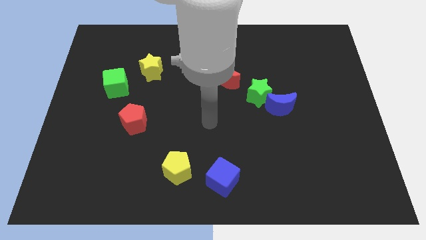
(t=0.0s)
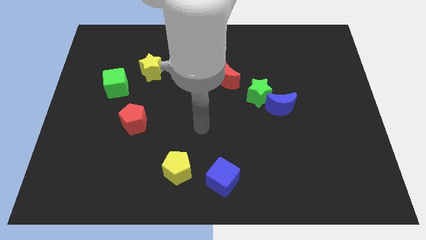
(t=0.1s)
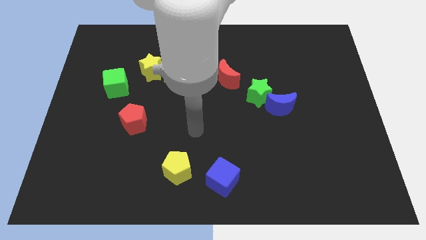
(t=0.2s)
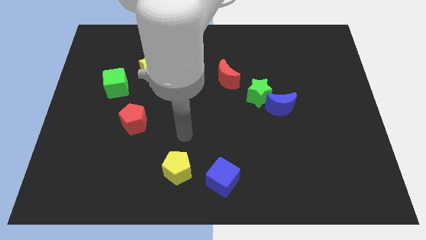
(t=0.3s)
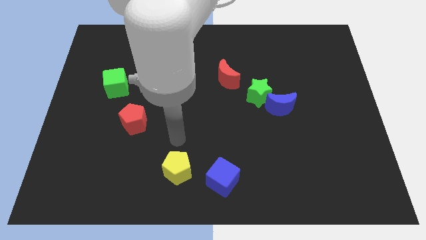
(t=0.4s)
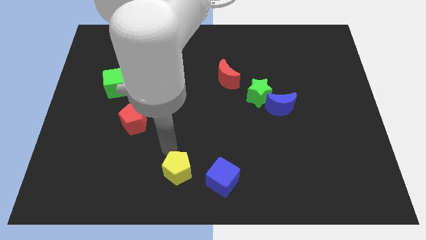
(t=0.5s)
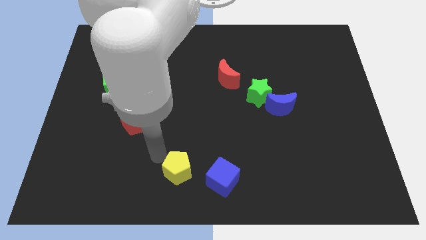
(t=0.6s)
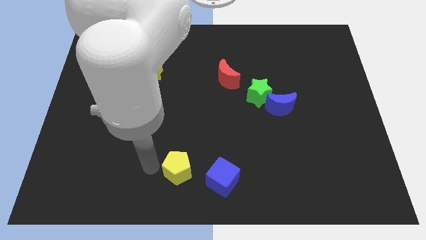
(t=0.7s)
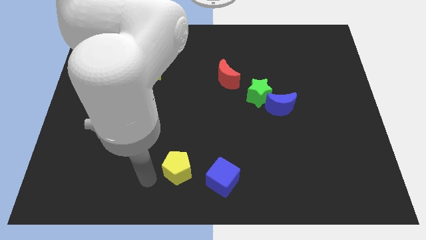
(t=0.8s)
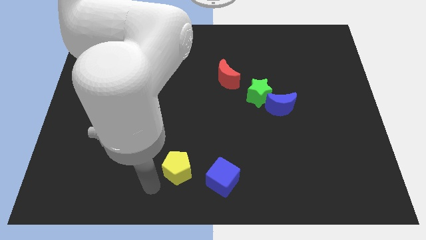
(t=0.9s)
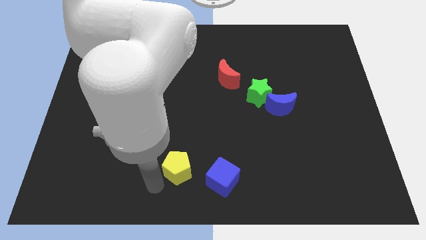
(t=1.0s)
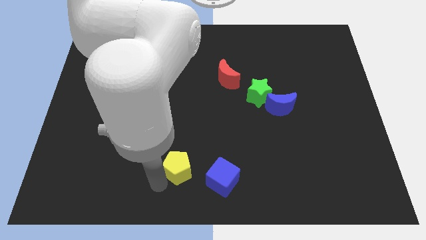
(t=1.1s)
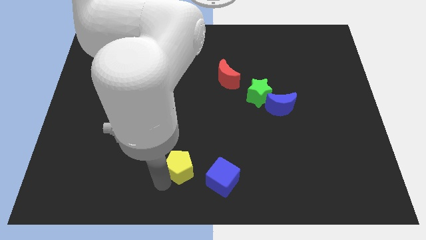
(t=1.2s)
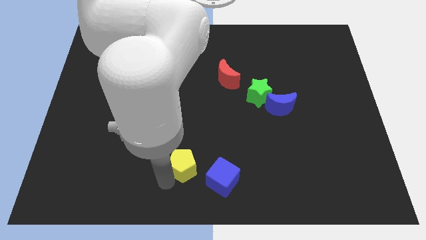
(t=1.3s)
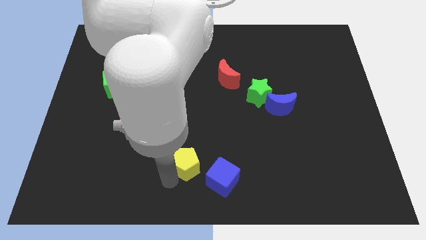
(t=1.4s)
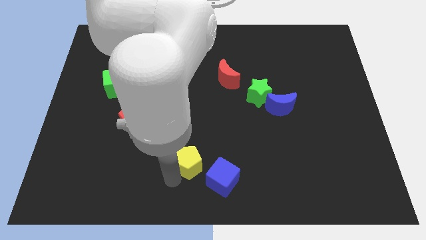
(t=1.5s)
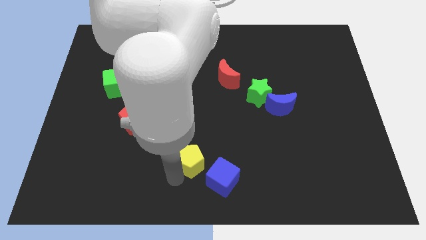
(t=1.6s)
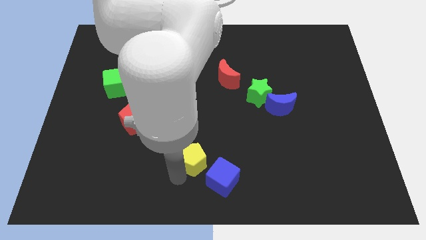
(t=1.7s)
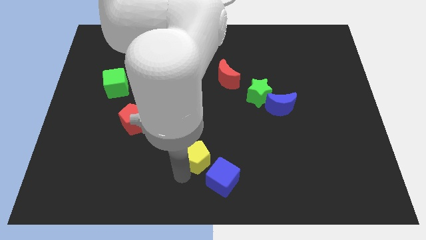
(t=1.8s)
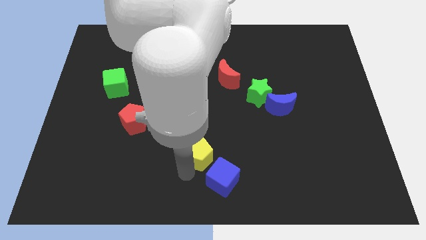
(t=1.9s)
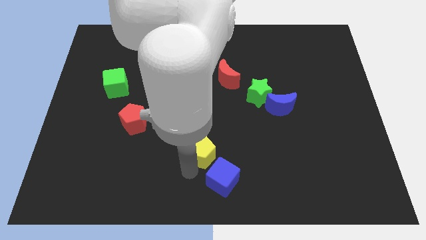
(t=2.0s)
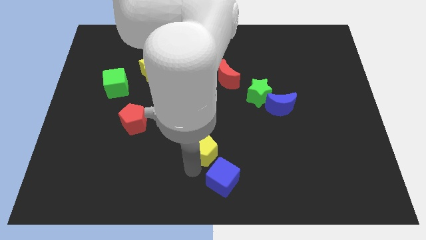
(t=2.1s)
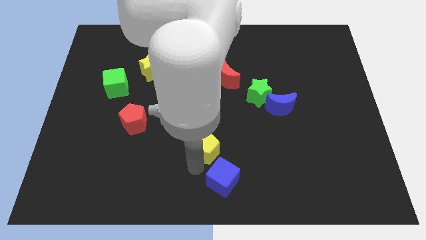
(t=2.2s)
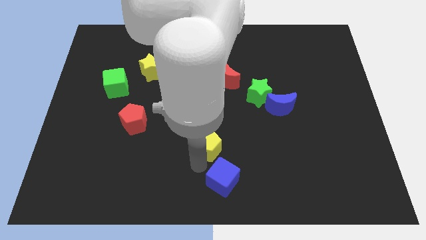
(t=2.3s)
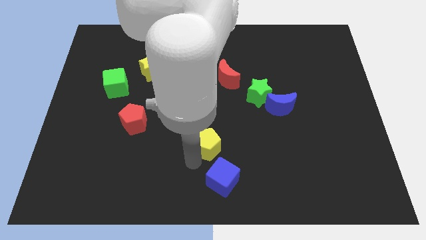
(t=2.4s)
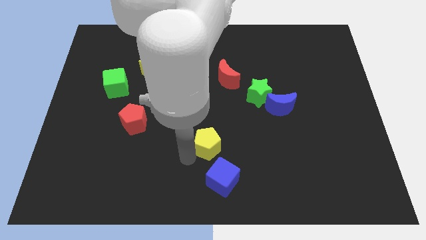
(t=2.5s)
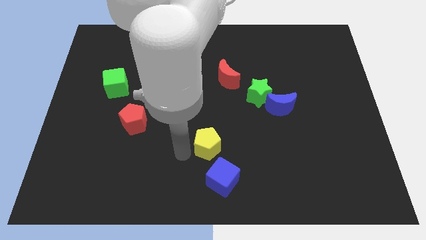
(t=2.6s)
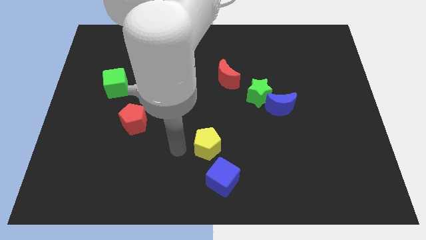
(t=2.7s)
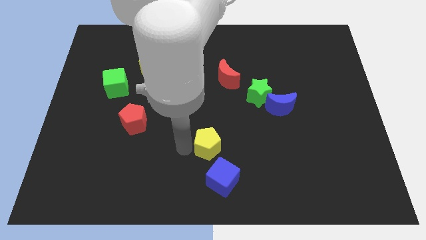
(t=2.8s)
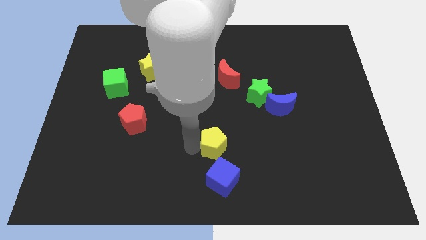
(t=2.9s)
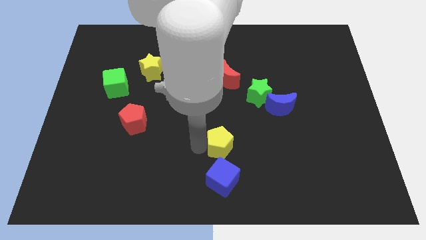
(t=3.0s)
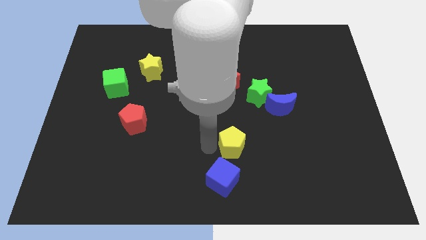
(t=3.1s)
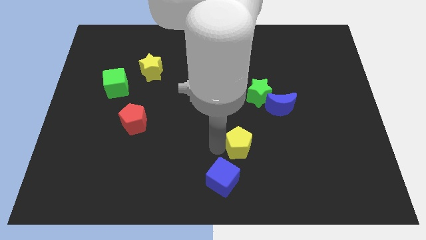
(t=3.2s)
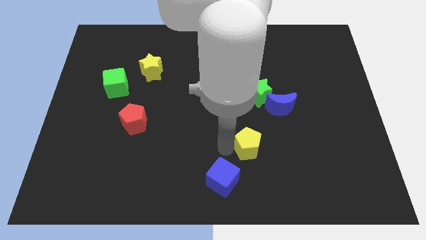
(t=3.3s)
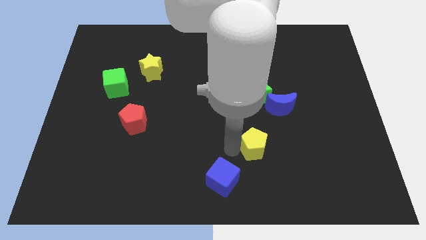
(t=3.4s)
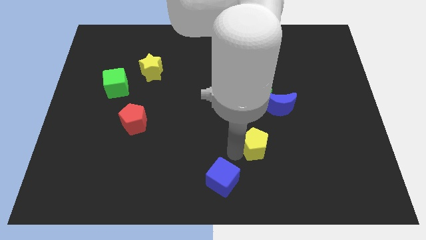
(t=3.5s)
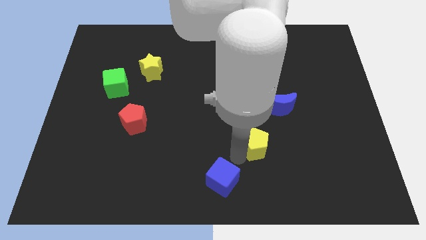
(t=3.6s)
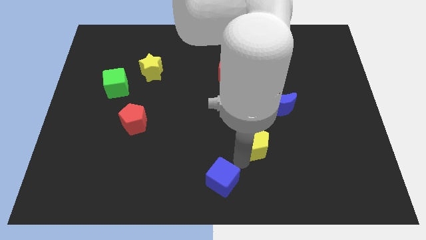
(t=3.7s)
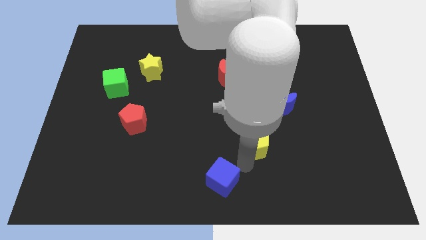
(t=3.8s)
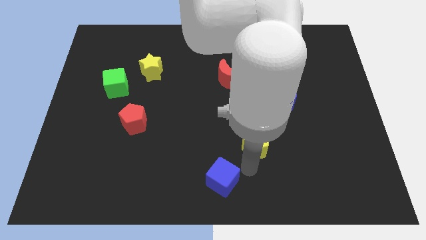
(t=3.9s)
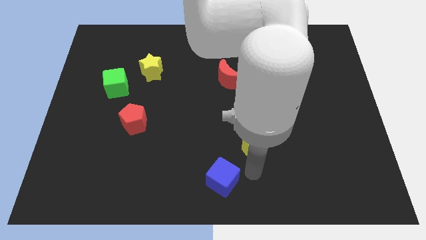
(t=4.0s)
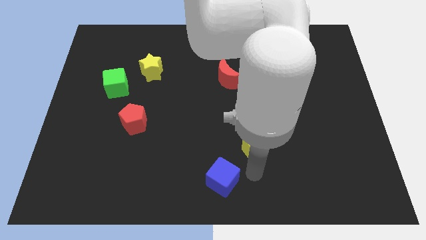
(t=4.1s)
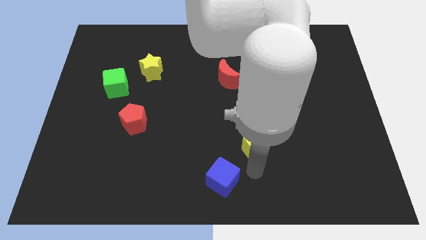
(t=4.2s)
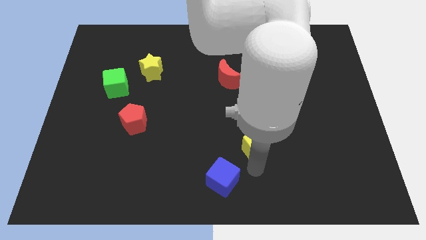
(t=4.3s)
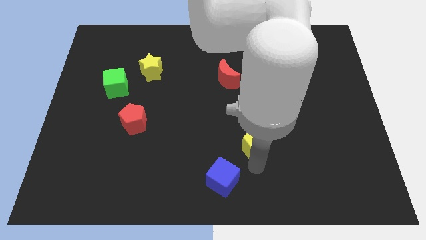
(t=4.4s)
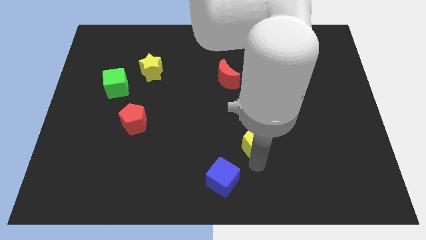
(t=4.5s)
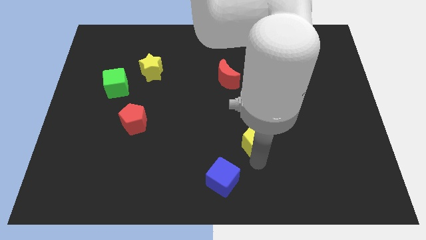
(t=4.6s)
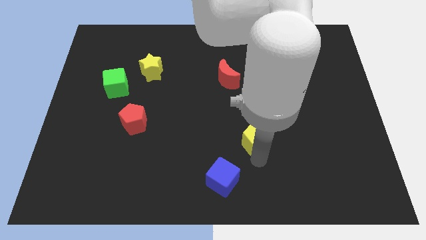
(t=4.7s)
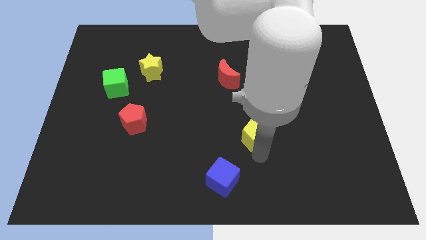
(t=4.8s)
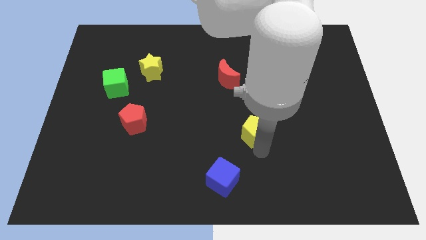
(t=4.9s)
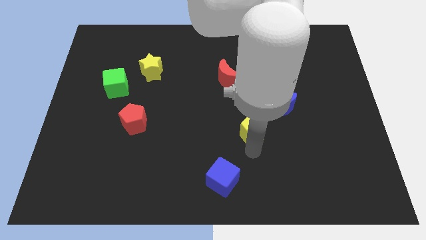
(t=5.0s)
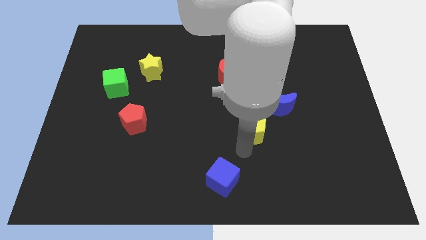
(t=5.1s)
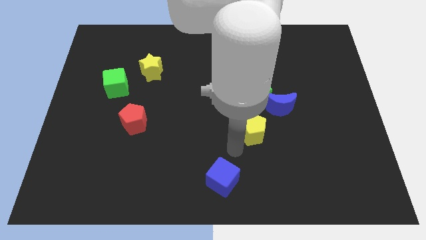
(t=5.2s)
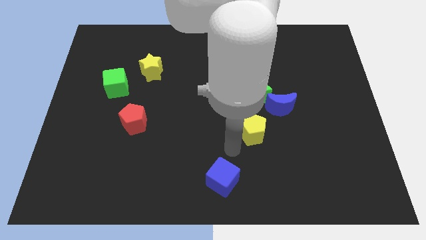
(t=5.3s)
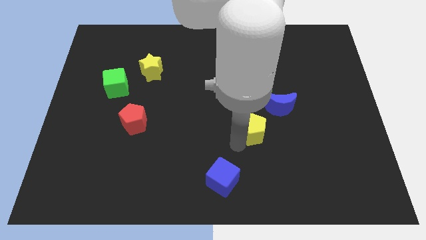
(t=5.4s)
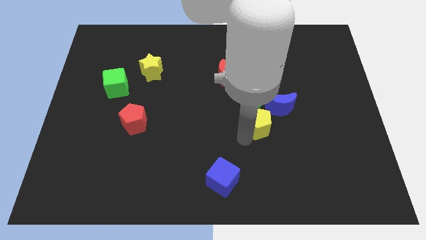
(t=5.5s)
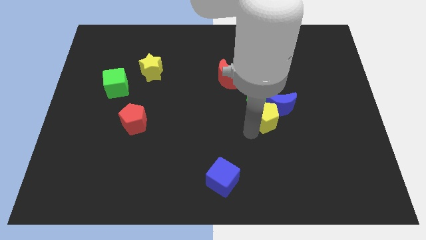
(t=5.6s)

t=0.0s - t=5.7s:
push the yellow pentagon to the blue moon

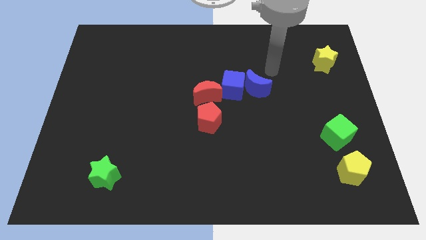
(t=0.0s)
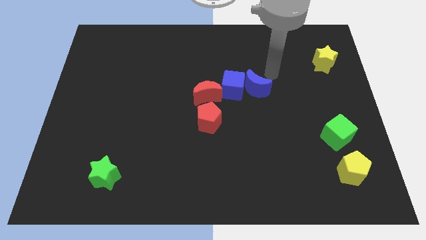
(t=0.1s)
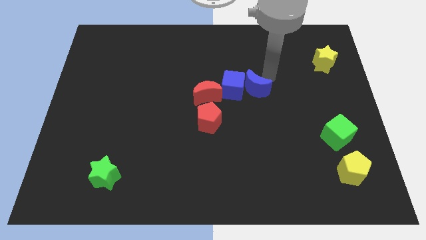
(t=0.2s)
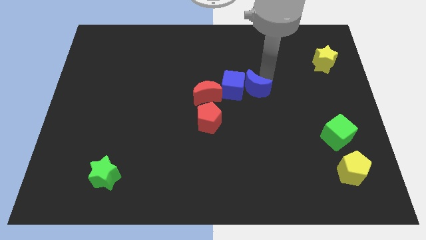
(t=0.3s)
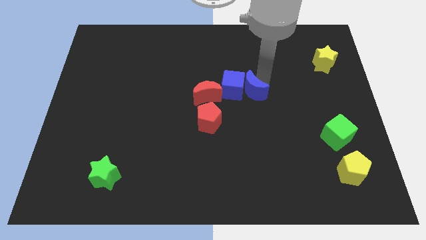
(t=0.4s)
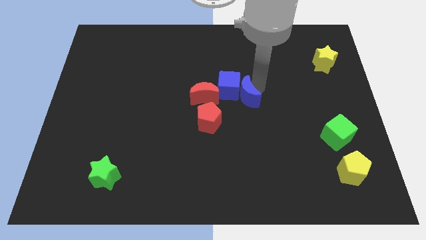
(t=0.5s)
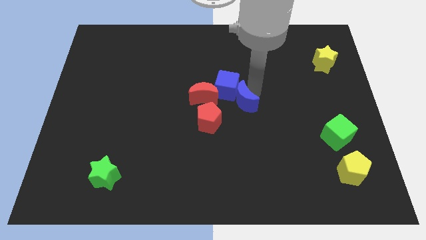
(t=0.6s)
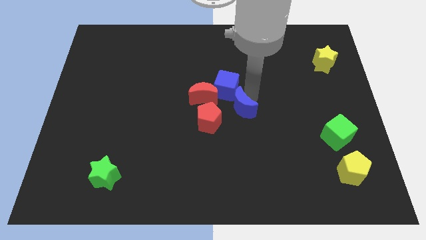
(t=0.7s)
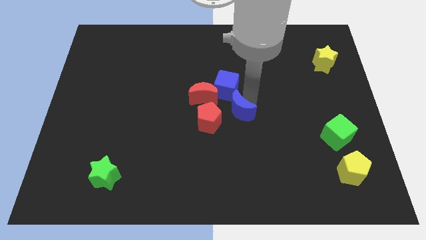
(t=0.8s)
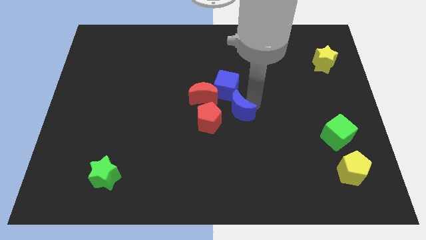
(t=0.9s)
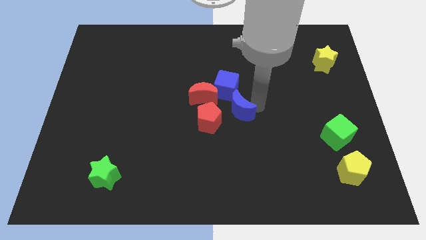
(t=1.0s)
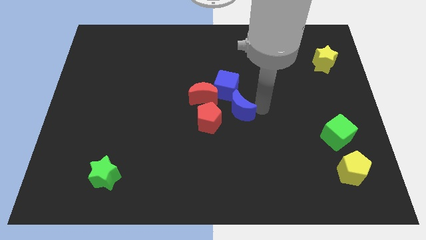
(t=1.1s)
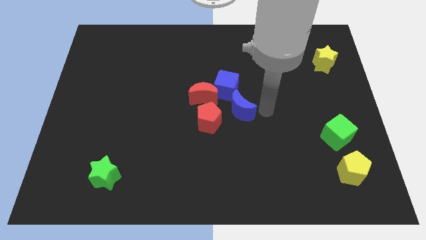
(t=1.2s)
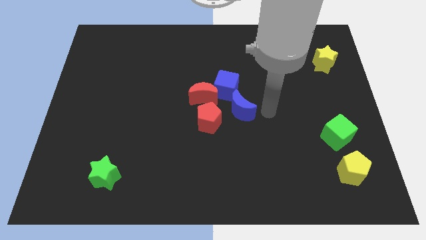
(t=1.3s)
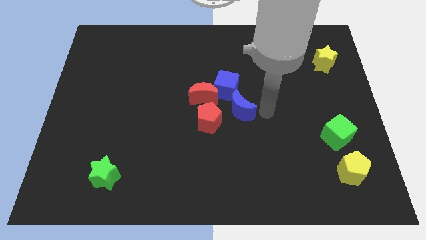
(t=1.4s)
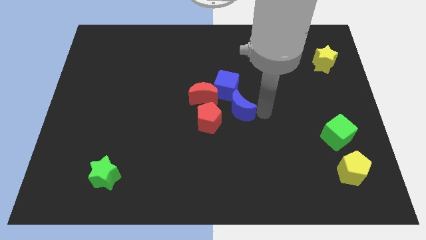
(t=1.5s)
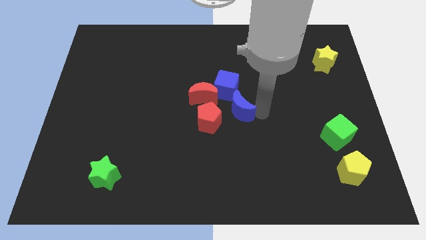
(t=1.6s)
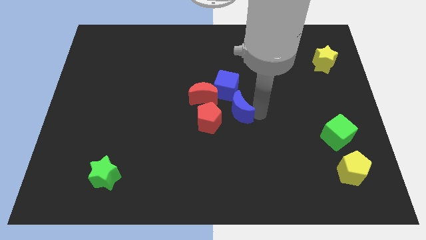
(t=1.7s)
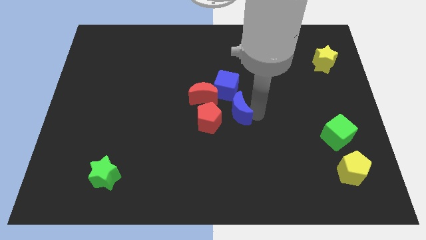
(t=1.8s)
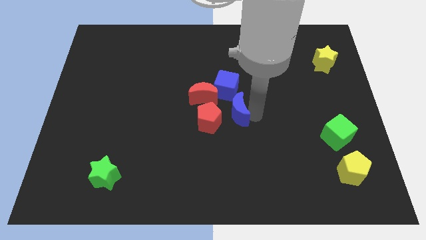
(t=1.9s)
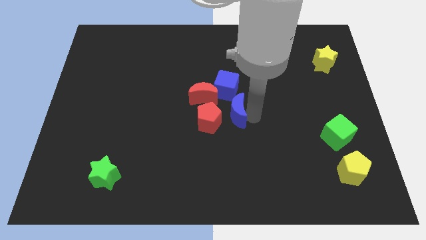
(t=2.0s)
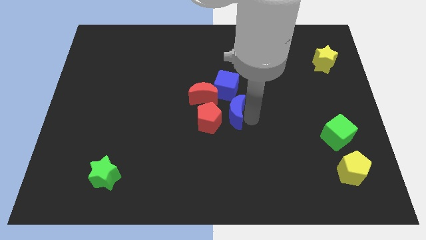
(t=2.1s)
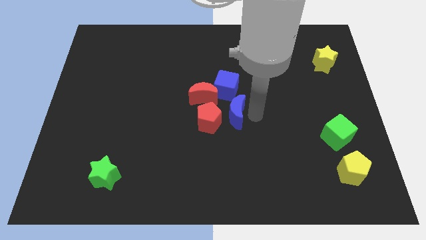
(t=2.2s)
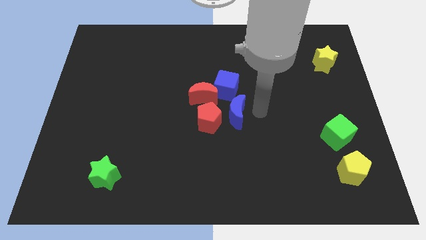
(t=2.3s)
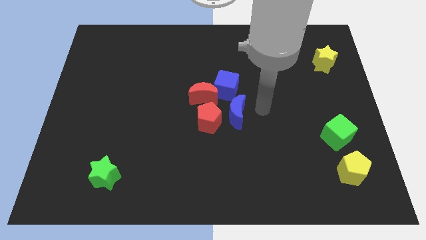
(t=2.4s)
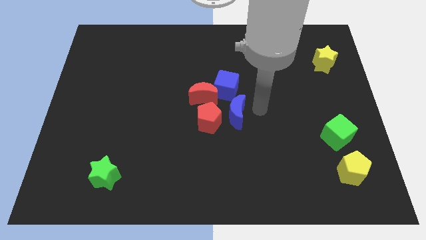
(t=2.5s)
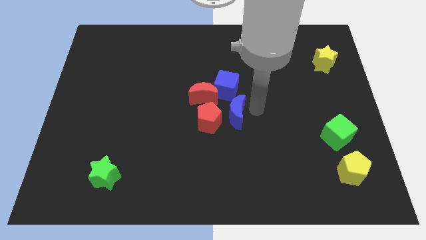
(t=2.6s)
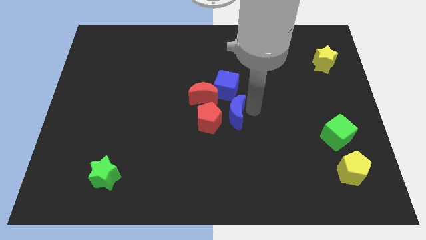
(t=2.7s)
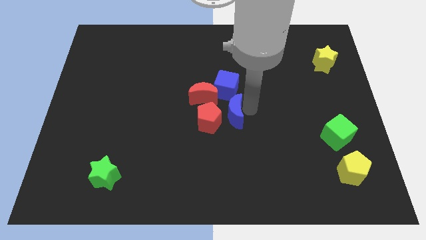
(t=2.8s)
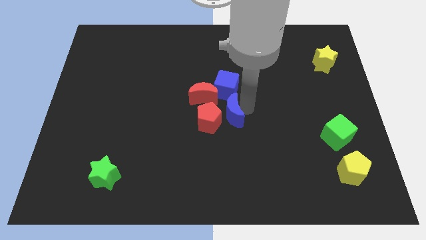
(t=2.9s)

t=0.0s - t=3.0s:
slide the blue moon next to the red pentagon
